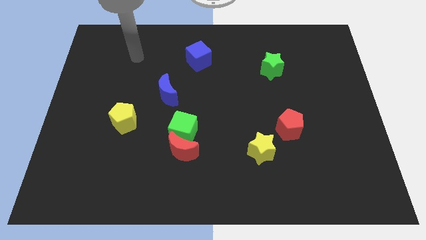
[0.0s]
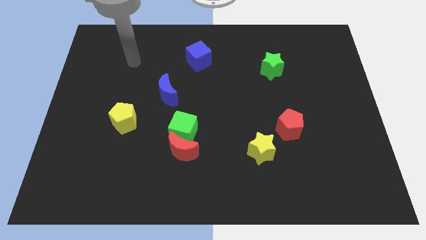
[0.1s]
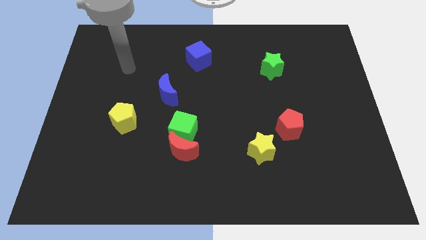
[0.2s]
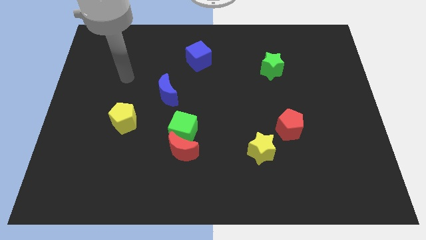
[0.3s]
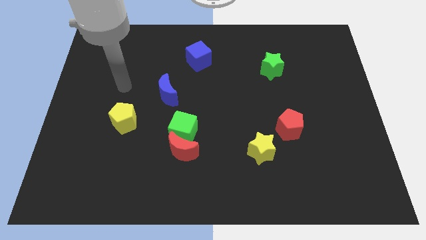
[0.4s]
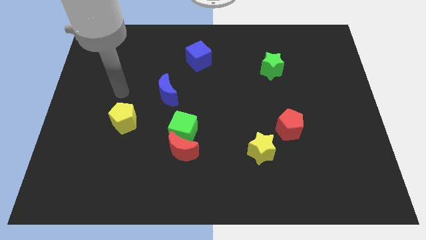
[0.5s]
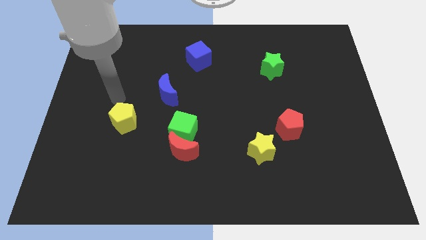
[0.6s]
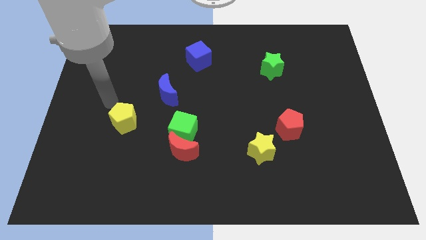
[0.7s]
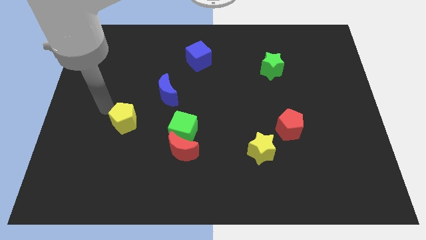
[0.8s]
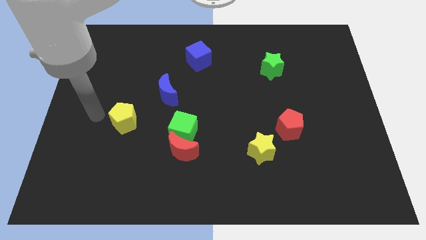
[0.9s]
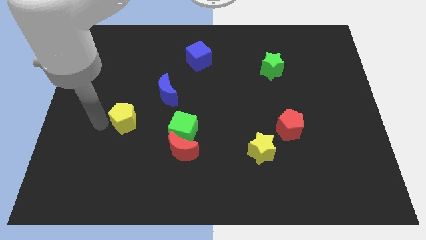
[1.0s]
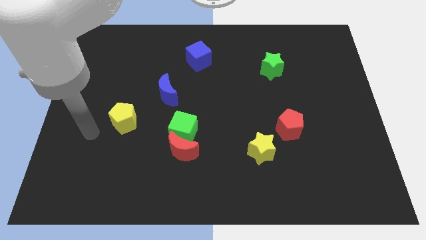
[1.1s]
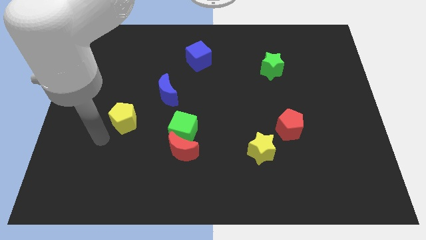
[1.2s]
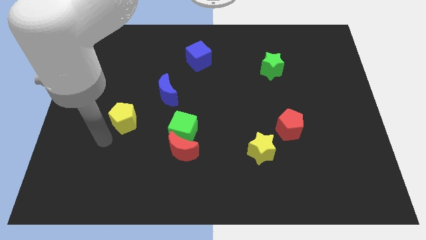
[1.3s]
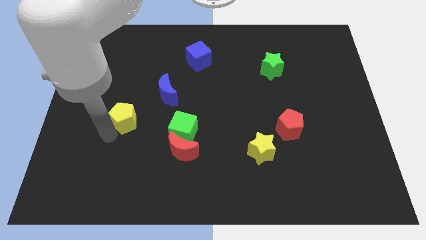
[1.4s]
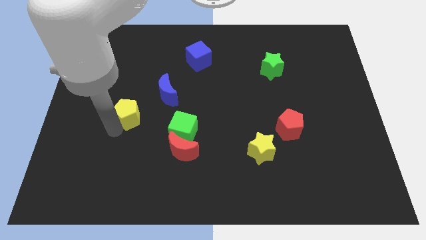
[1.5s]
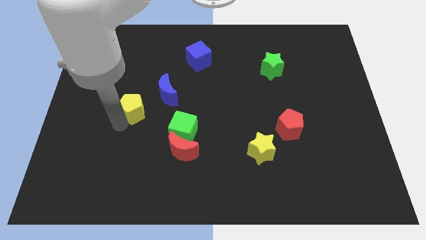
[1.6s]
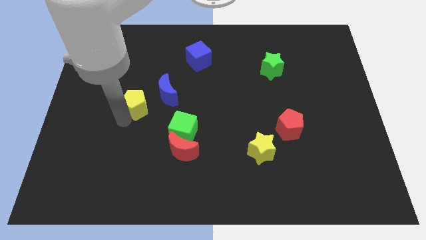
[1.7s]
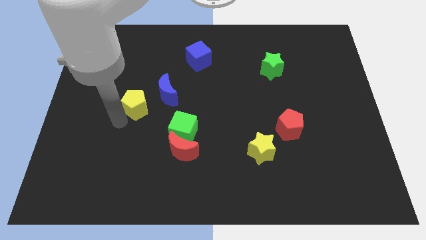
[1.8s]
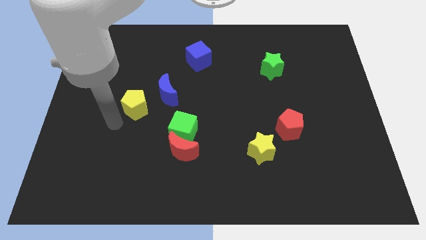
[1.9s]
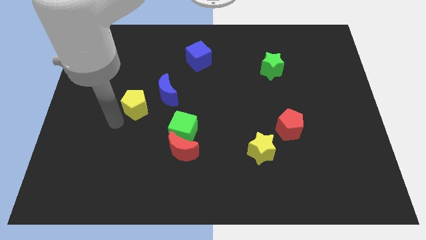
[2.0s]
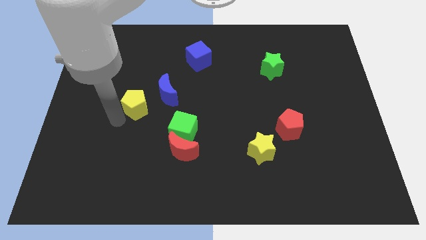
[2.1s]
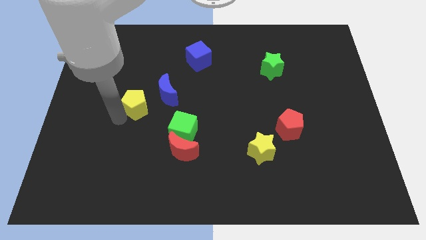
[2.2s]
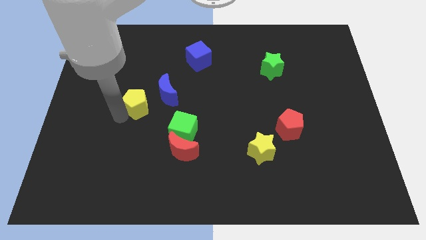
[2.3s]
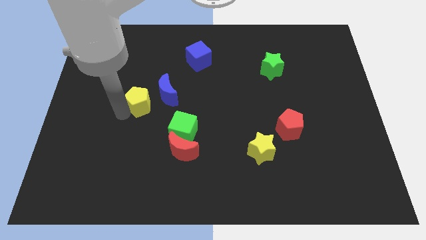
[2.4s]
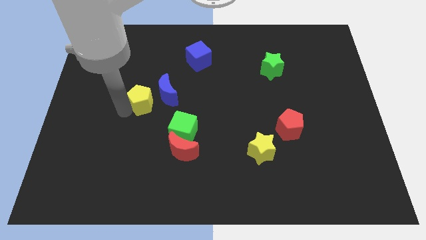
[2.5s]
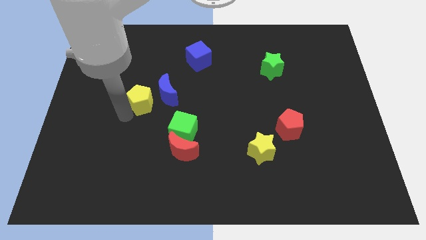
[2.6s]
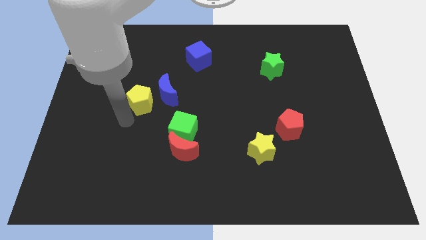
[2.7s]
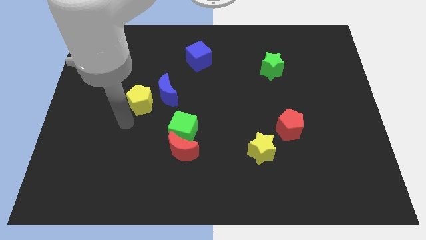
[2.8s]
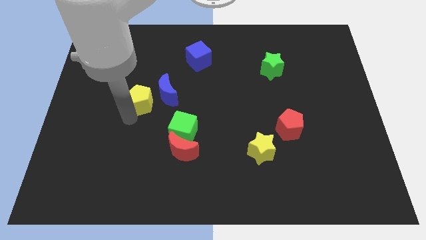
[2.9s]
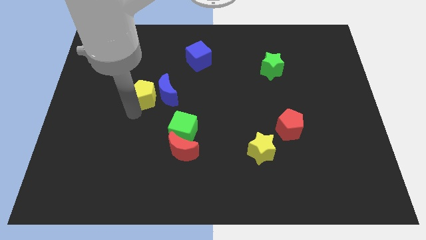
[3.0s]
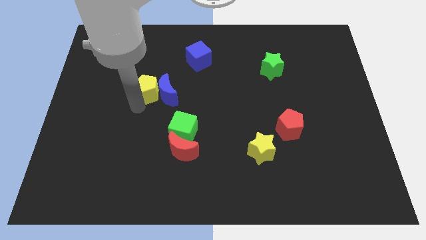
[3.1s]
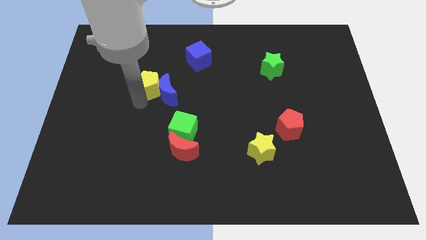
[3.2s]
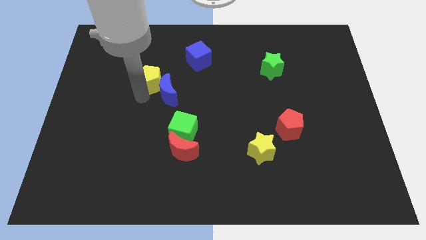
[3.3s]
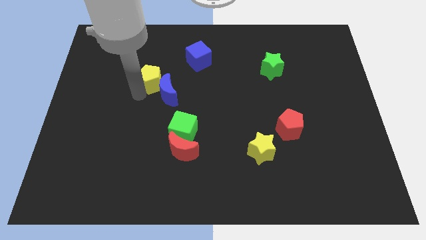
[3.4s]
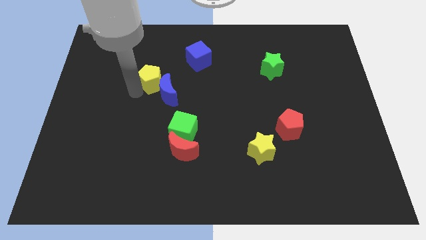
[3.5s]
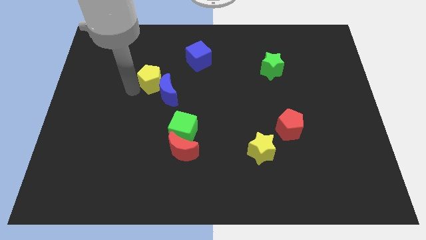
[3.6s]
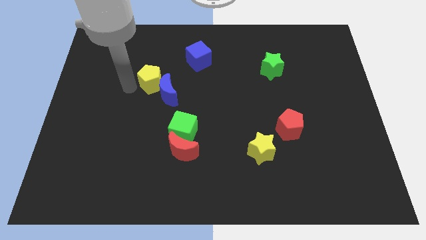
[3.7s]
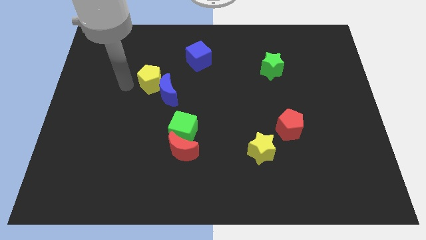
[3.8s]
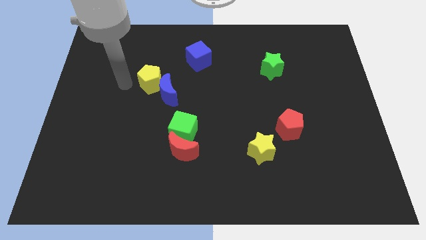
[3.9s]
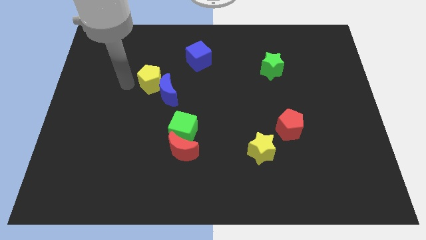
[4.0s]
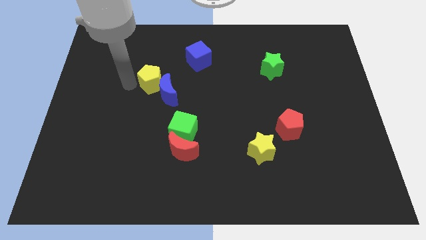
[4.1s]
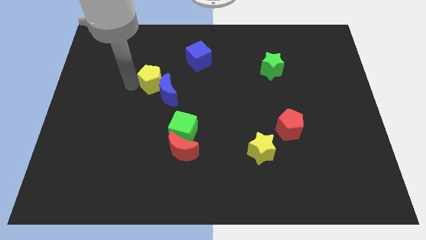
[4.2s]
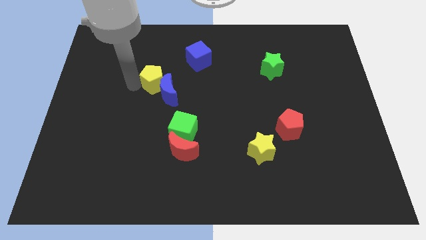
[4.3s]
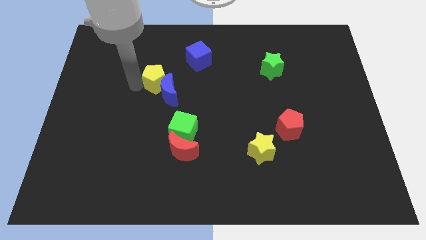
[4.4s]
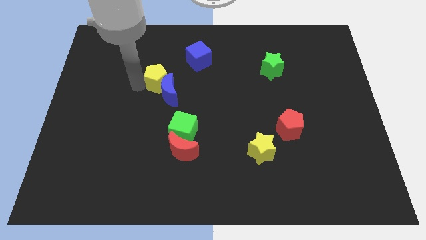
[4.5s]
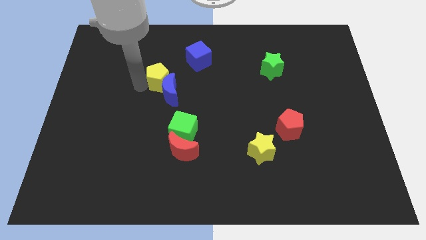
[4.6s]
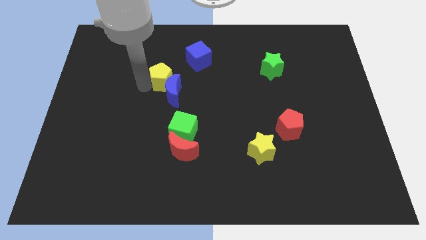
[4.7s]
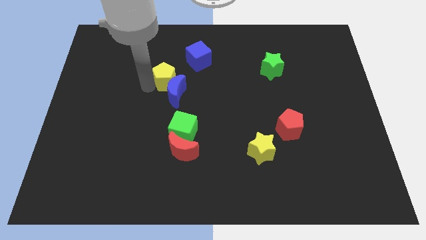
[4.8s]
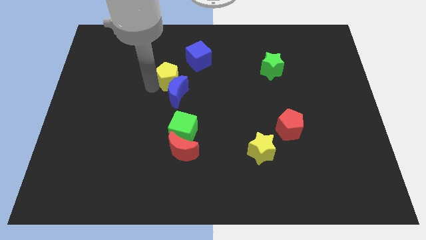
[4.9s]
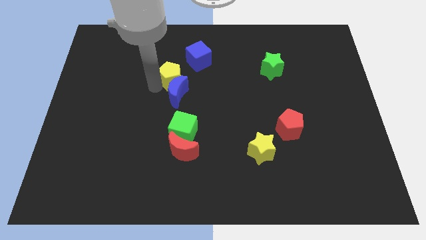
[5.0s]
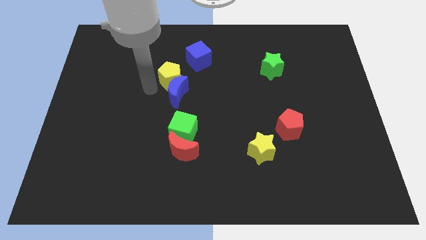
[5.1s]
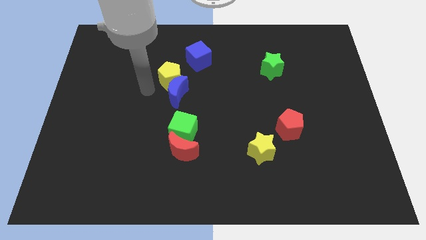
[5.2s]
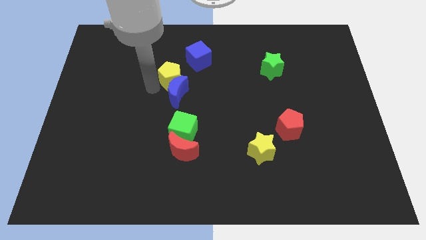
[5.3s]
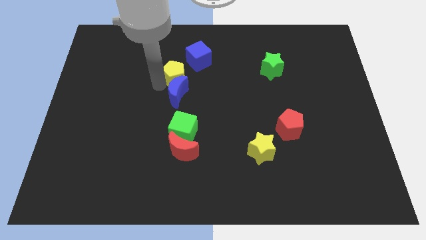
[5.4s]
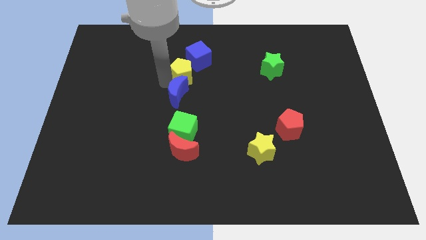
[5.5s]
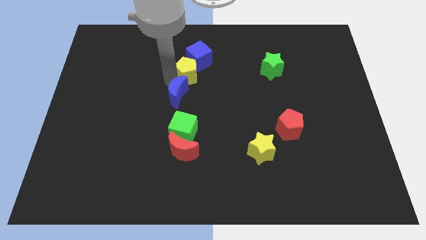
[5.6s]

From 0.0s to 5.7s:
push the yellow pentagon to the blue cube

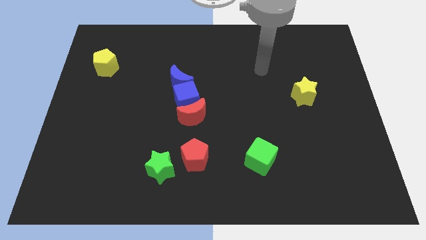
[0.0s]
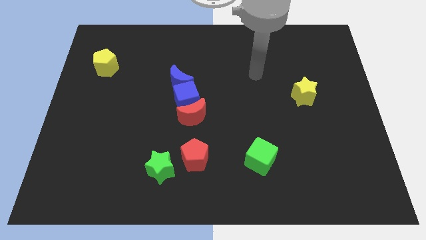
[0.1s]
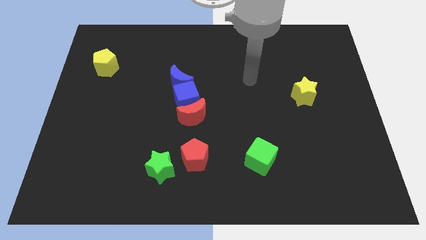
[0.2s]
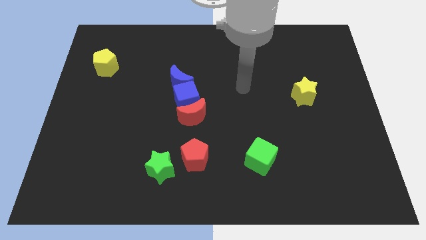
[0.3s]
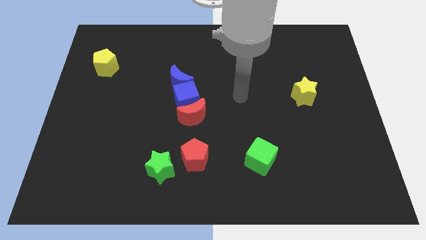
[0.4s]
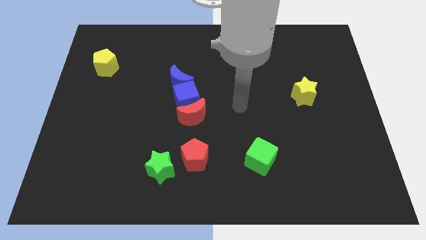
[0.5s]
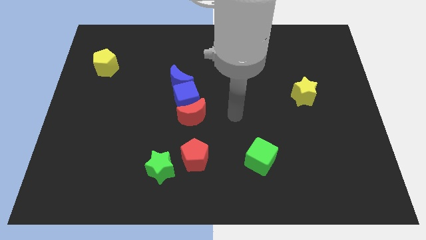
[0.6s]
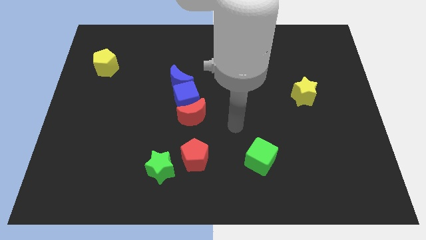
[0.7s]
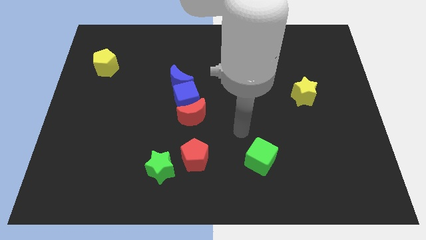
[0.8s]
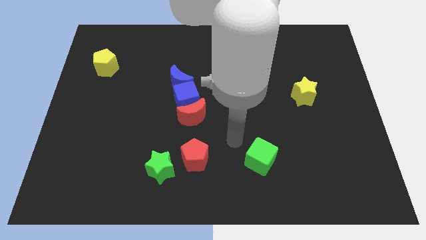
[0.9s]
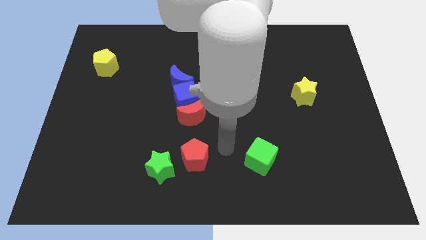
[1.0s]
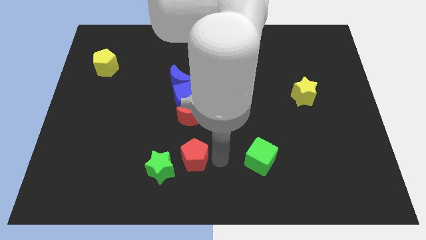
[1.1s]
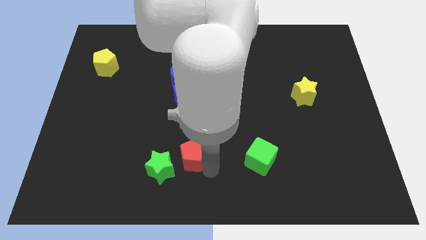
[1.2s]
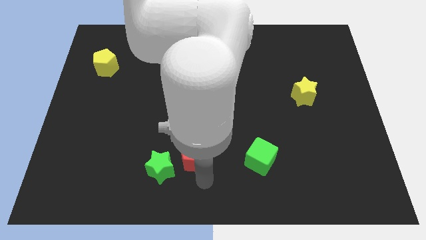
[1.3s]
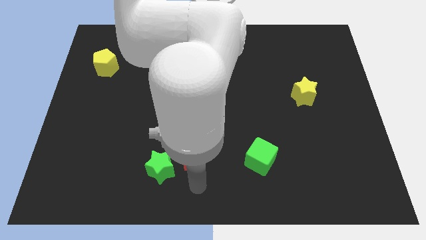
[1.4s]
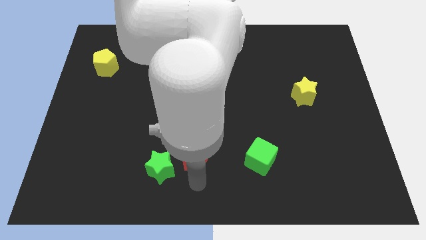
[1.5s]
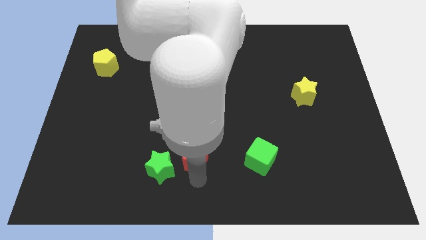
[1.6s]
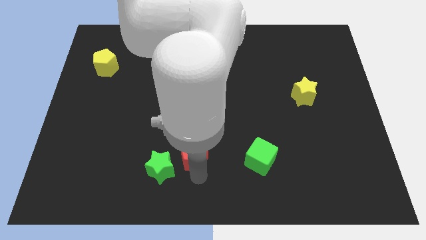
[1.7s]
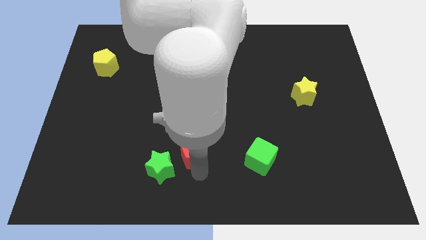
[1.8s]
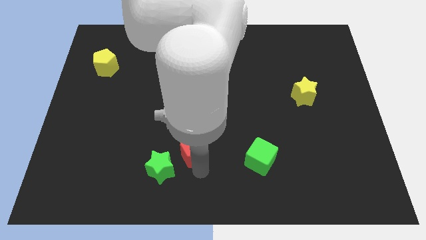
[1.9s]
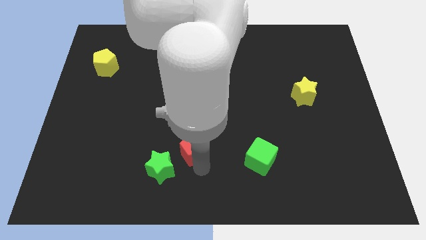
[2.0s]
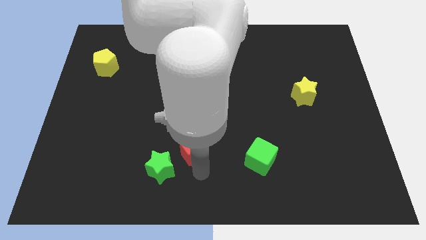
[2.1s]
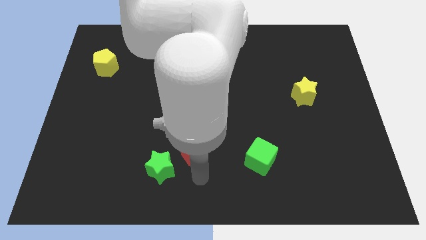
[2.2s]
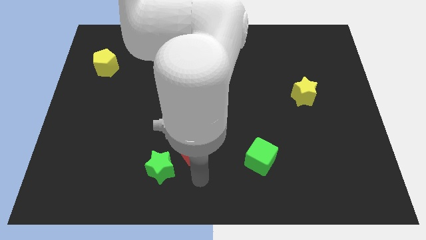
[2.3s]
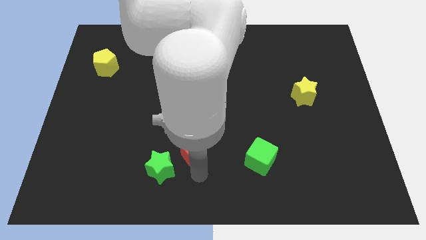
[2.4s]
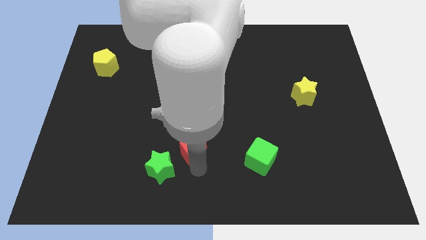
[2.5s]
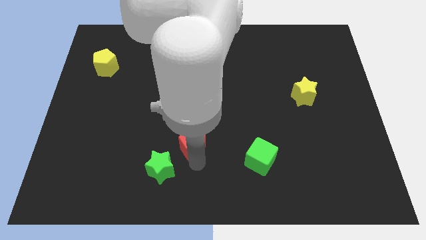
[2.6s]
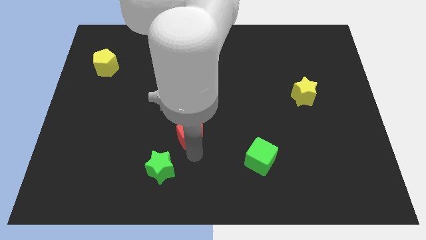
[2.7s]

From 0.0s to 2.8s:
slide the red pentagon close to the red moon
